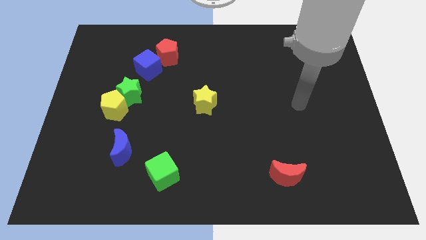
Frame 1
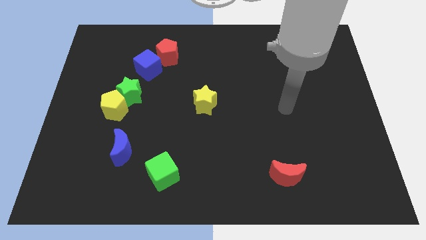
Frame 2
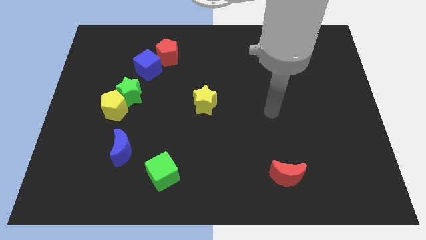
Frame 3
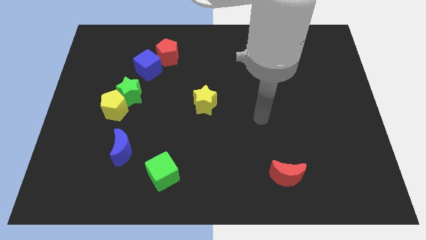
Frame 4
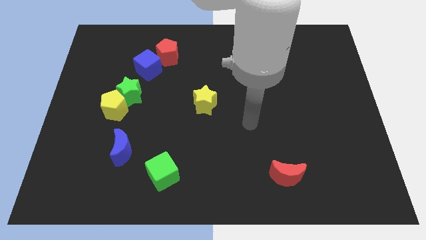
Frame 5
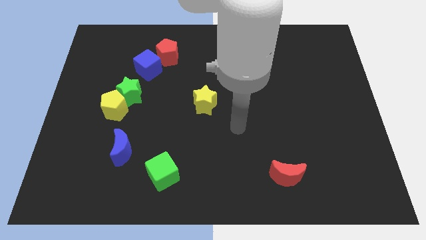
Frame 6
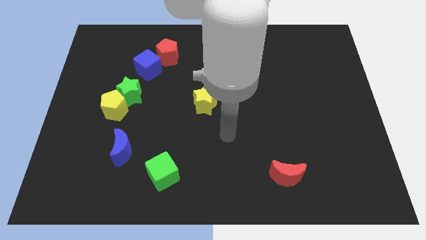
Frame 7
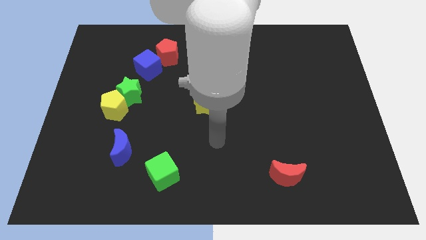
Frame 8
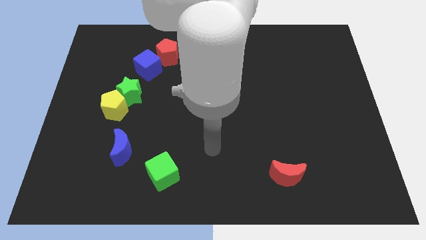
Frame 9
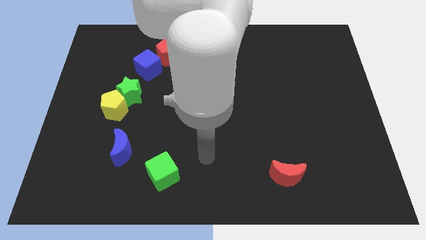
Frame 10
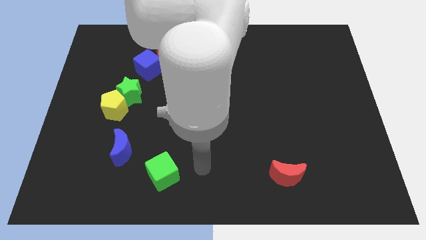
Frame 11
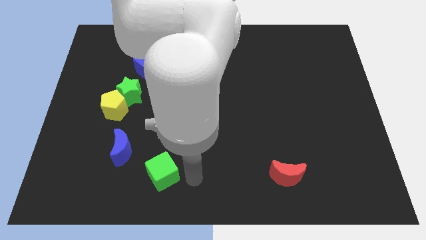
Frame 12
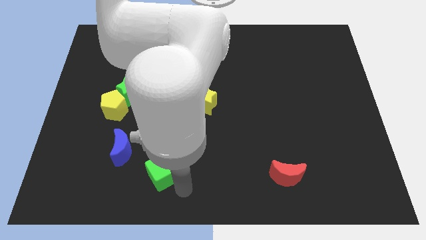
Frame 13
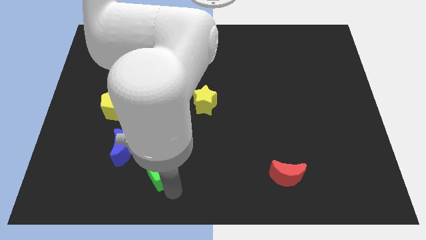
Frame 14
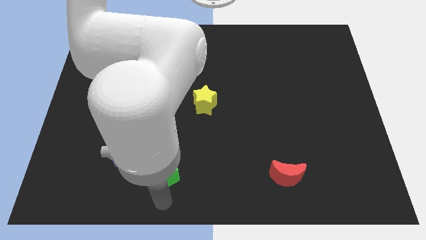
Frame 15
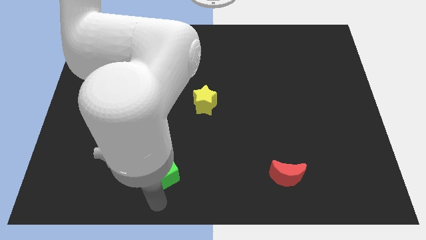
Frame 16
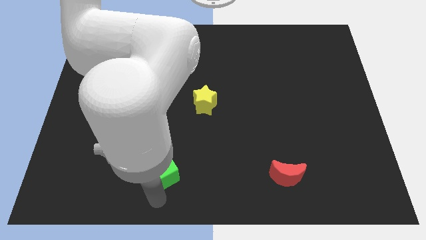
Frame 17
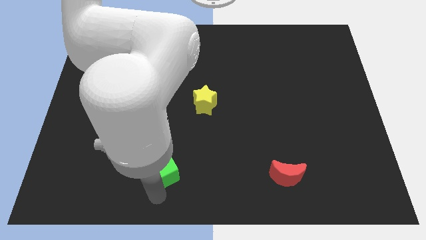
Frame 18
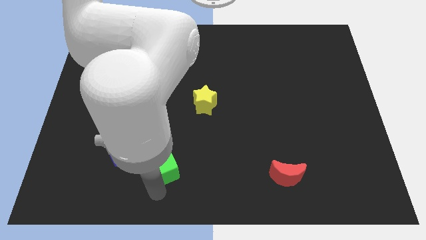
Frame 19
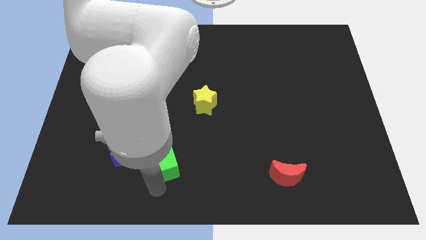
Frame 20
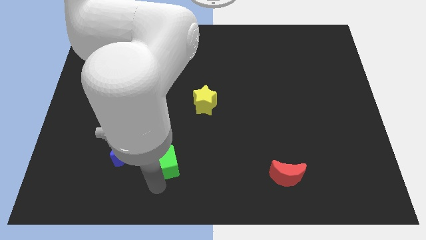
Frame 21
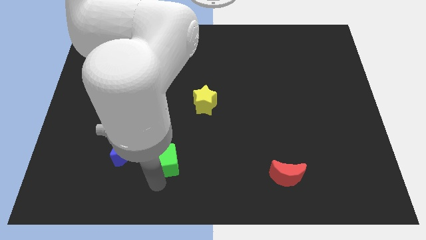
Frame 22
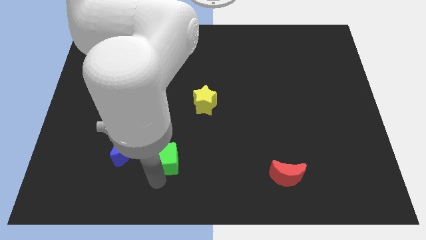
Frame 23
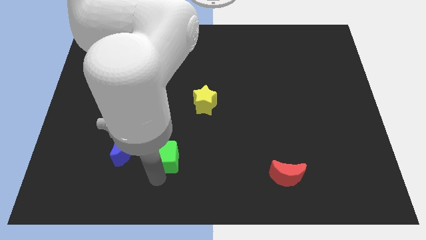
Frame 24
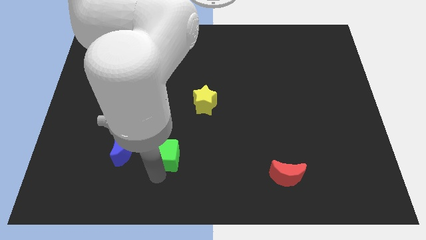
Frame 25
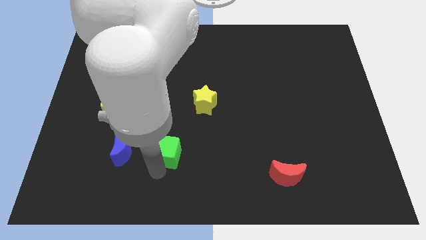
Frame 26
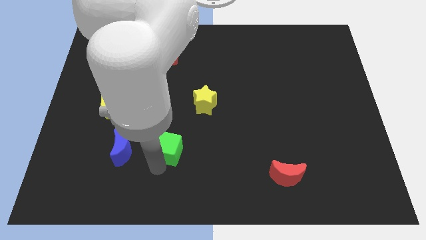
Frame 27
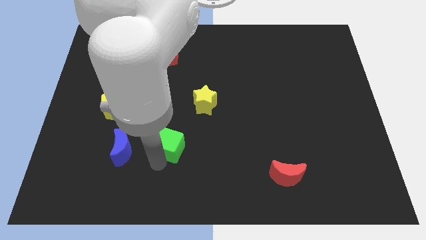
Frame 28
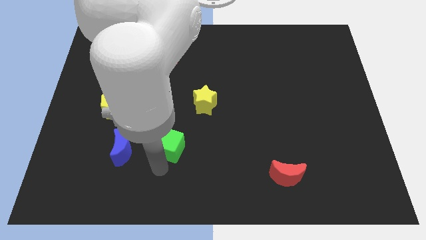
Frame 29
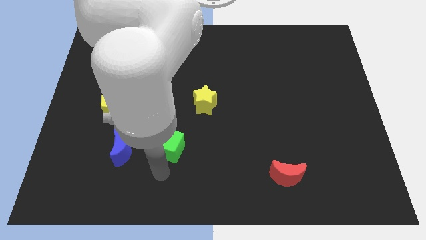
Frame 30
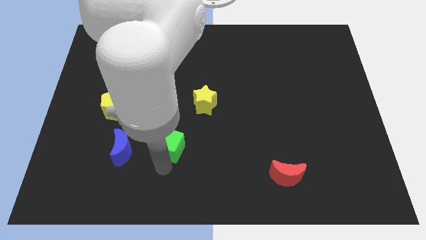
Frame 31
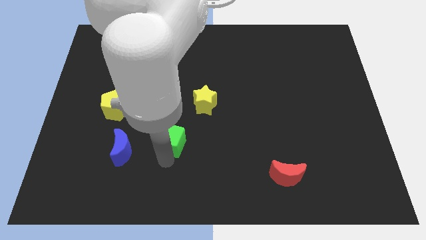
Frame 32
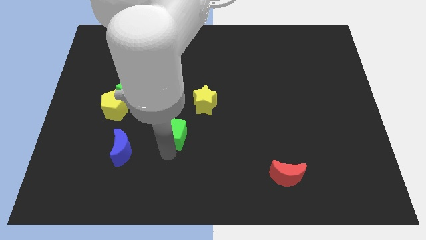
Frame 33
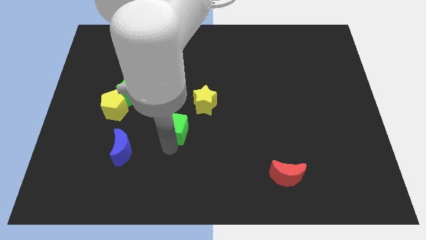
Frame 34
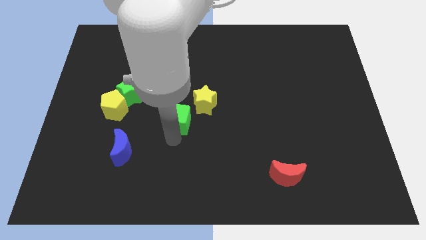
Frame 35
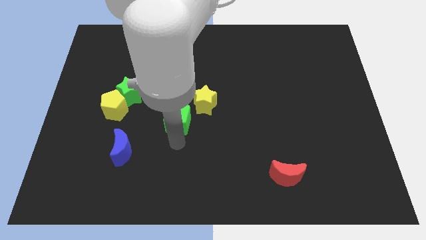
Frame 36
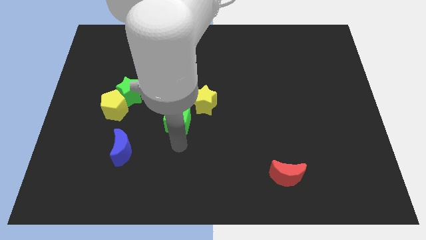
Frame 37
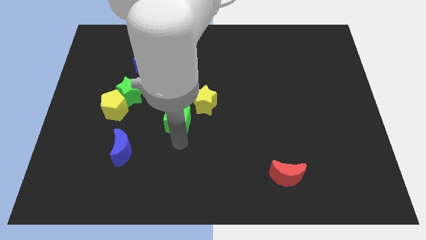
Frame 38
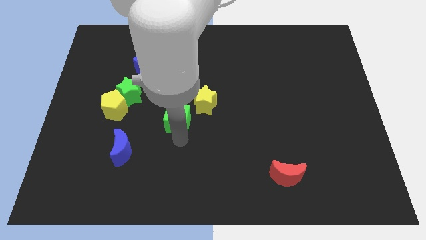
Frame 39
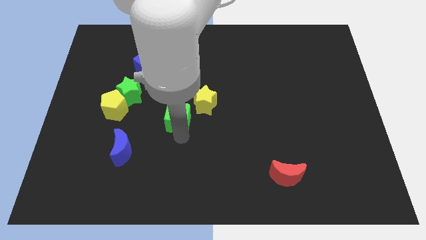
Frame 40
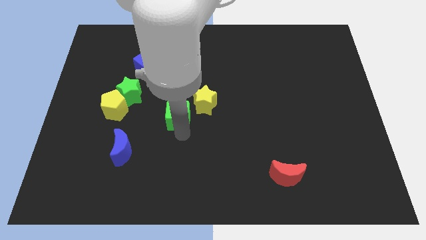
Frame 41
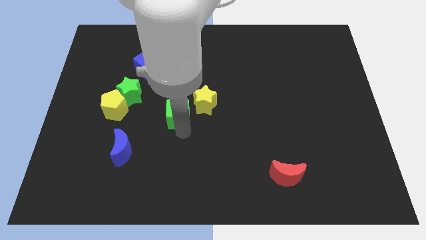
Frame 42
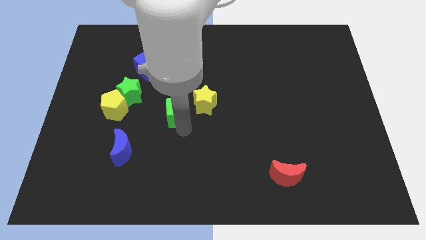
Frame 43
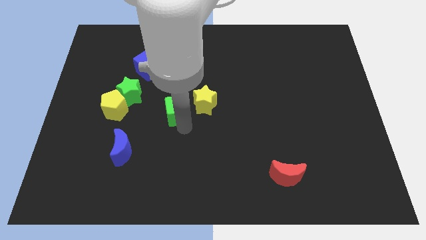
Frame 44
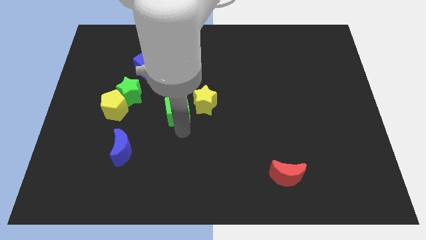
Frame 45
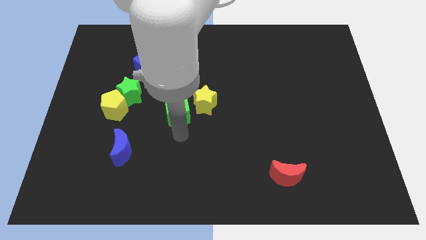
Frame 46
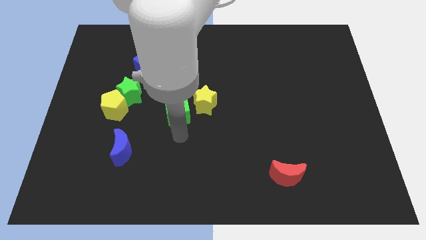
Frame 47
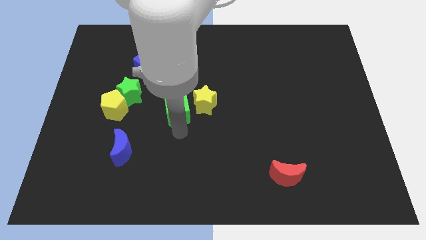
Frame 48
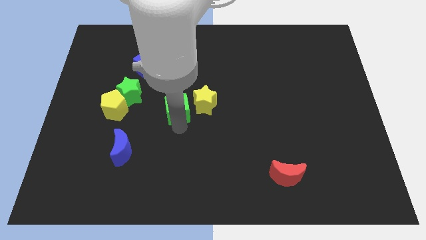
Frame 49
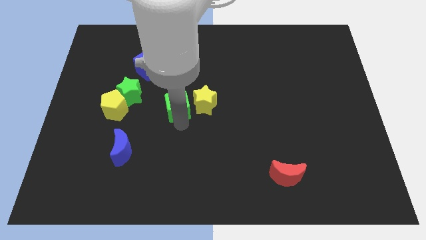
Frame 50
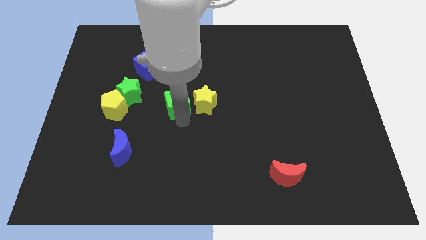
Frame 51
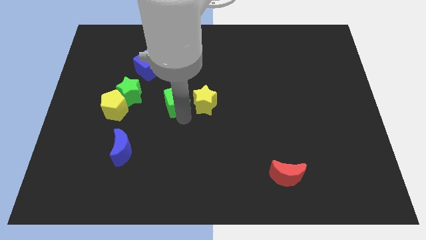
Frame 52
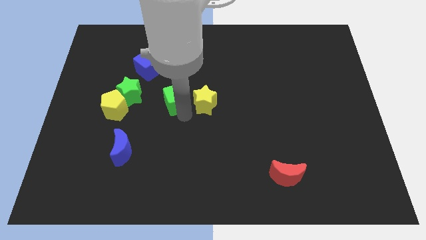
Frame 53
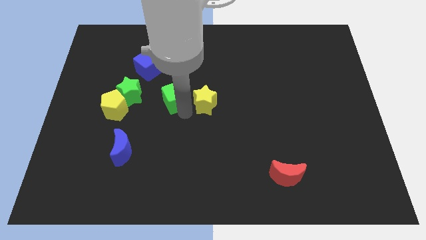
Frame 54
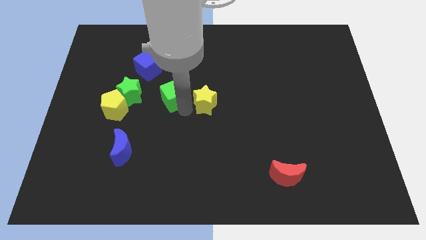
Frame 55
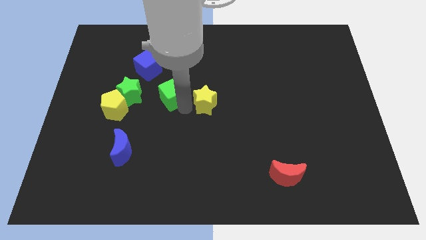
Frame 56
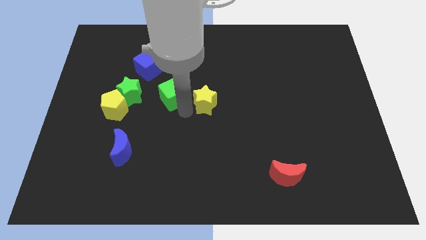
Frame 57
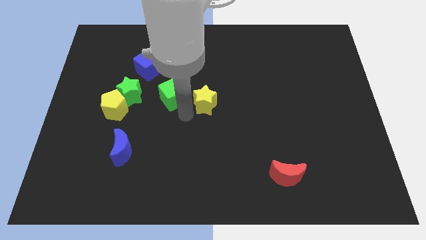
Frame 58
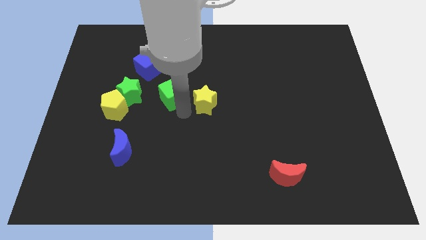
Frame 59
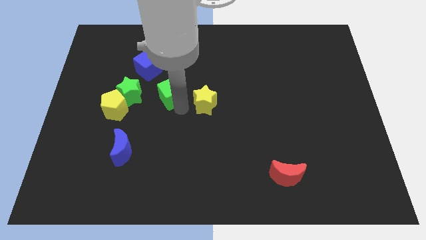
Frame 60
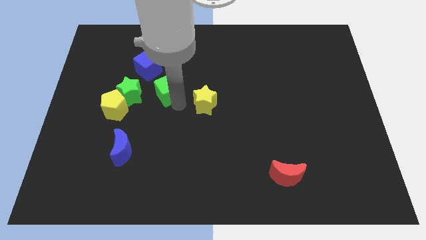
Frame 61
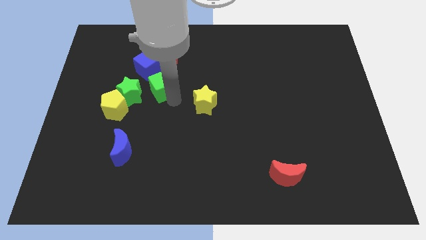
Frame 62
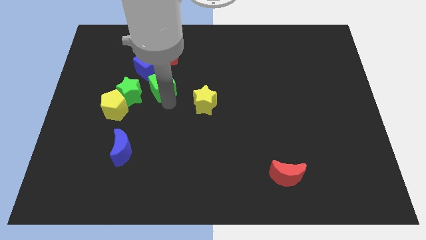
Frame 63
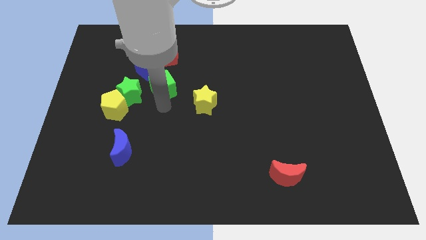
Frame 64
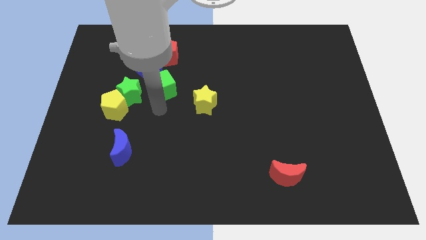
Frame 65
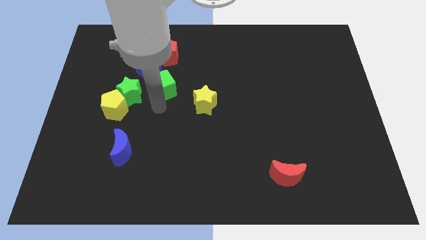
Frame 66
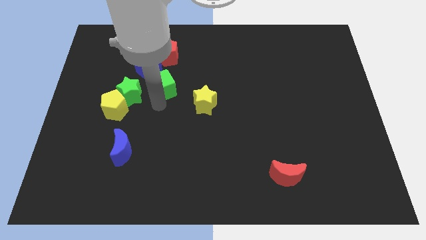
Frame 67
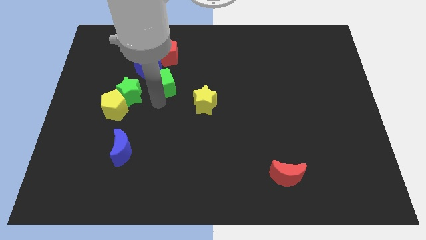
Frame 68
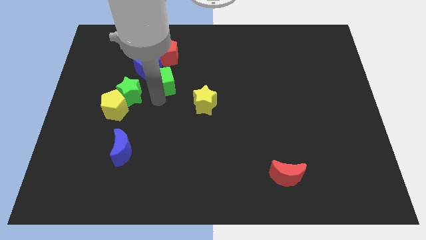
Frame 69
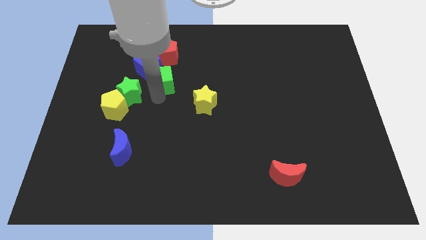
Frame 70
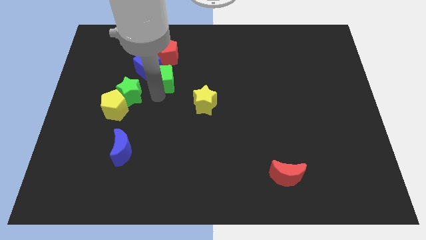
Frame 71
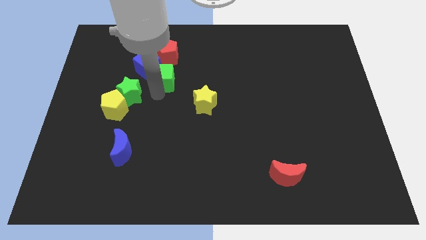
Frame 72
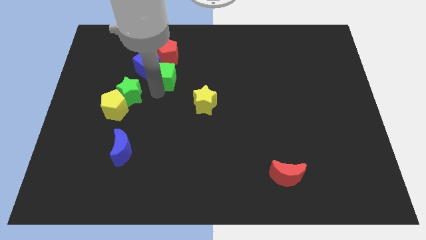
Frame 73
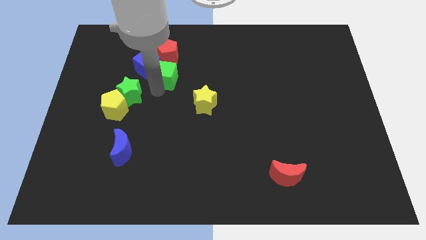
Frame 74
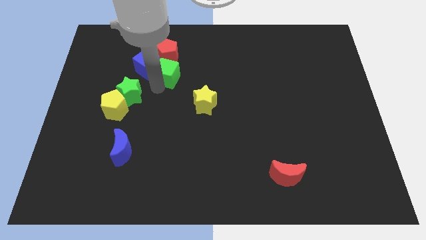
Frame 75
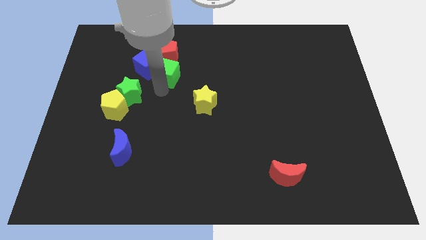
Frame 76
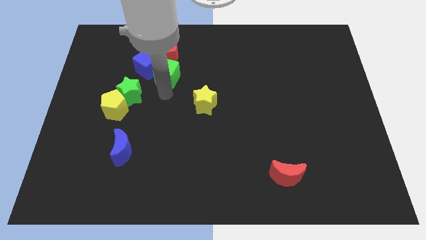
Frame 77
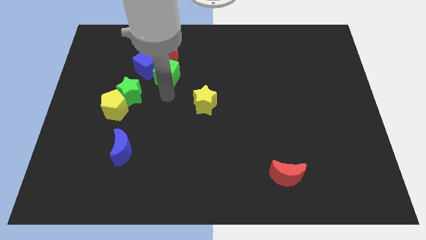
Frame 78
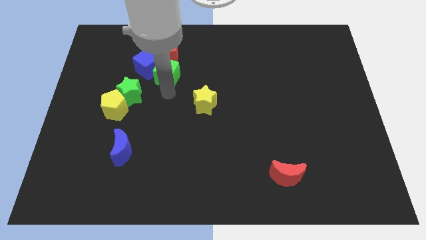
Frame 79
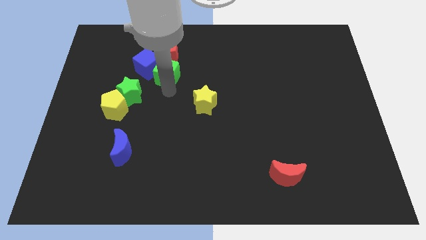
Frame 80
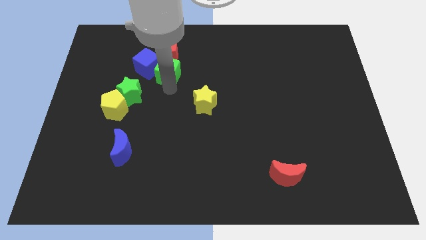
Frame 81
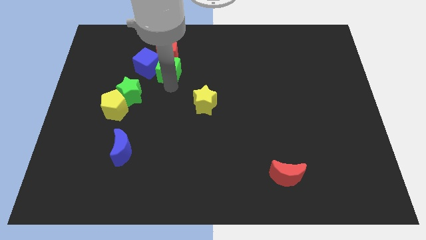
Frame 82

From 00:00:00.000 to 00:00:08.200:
move the green cube to the red pentagon
